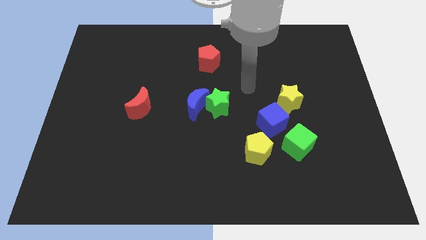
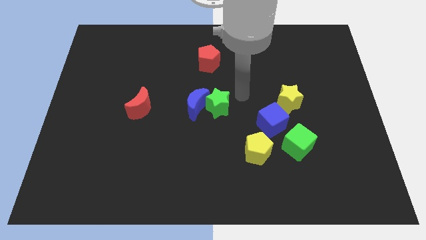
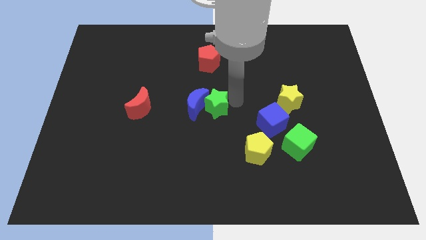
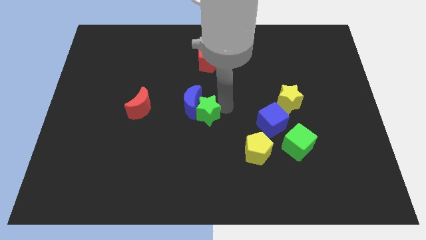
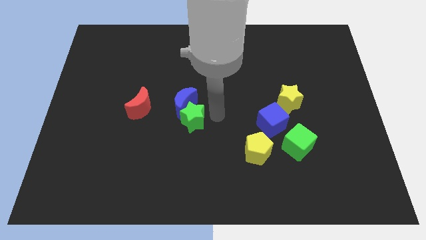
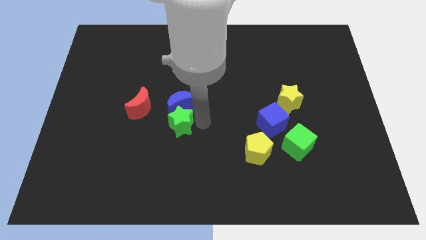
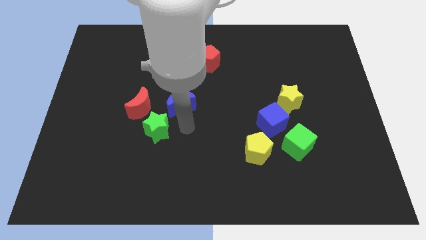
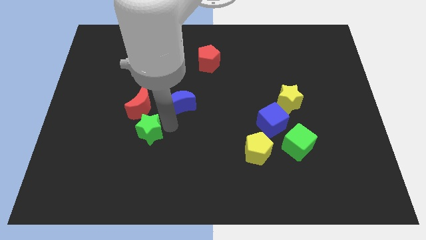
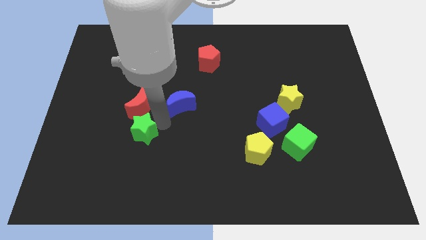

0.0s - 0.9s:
move the blue moon away from the green star

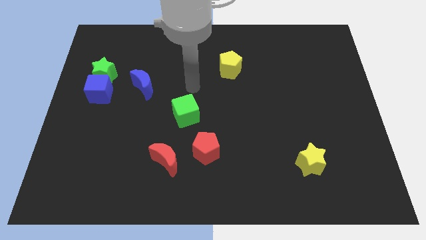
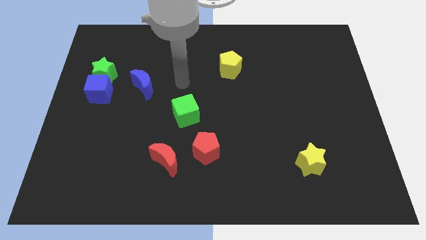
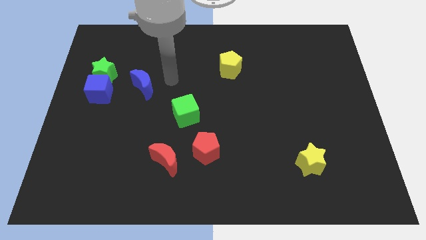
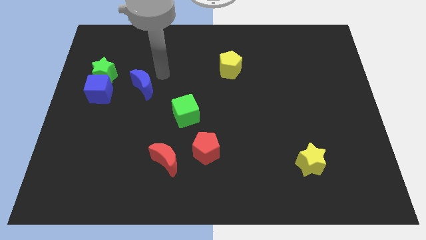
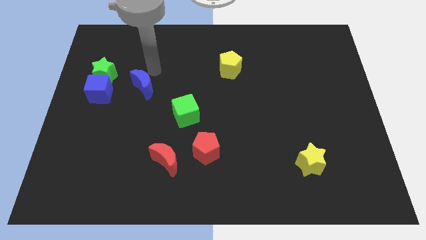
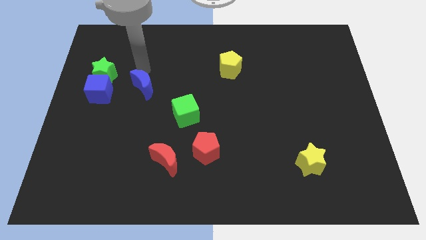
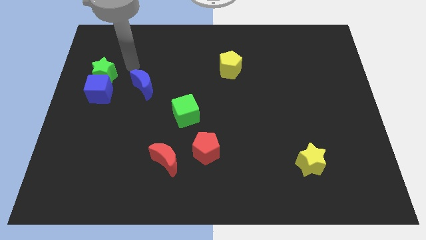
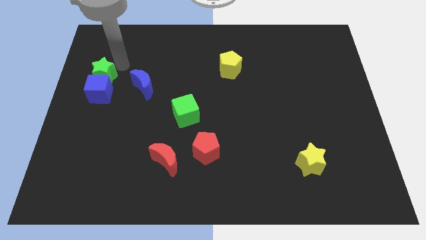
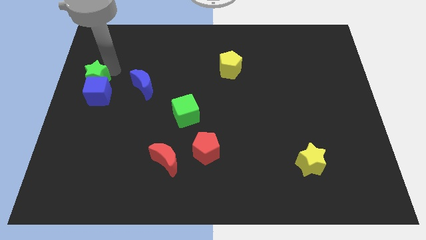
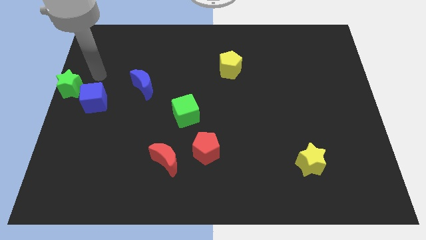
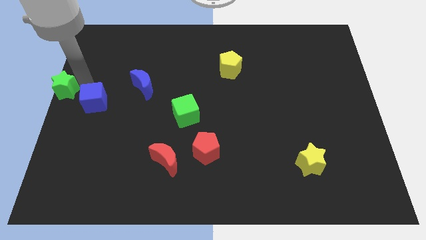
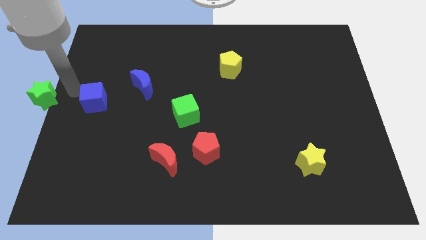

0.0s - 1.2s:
move the blue cube away from the green star

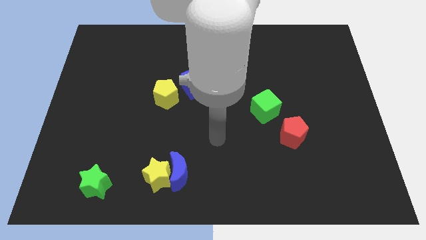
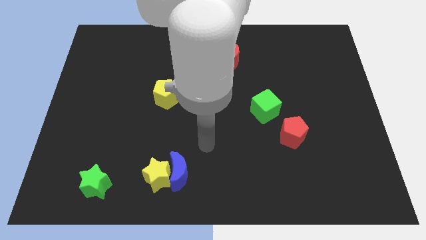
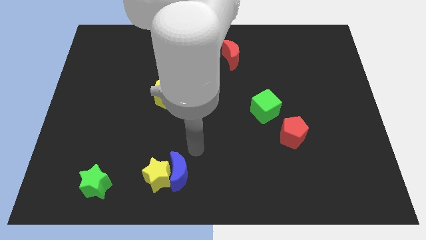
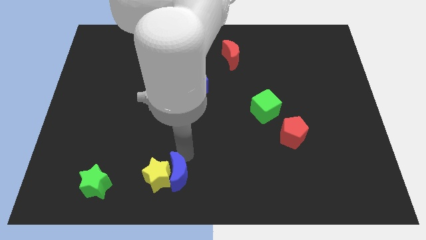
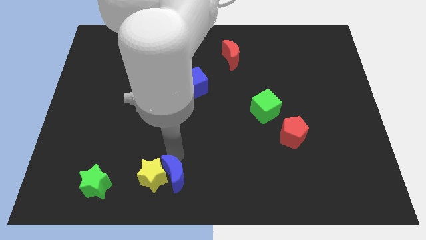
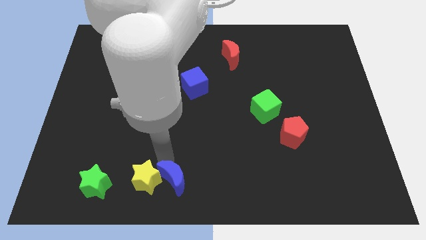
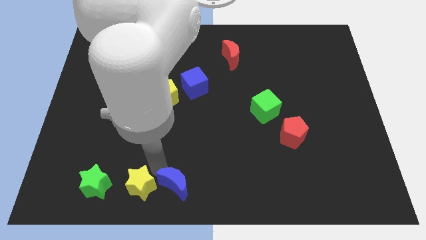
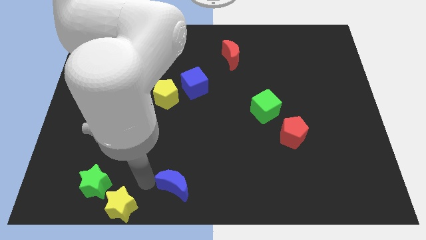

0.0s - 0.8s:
pull the blue moon apart from the yellow star

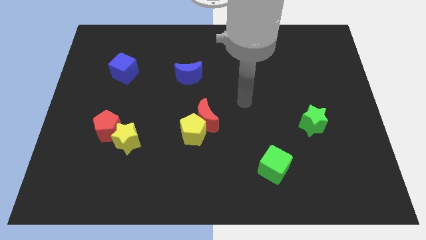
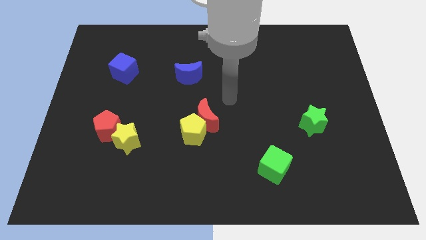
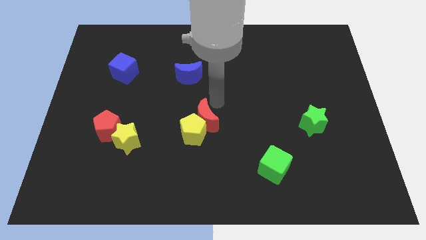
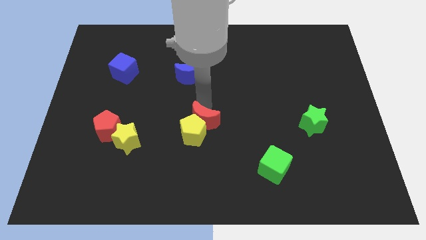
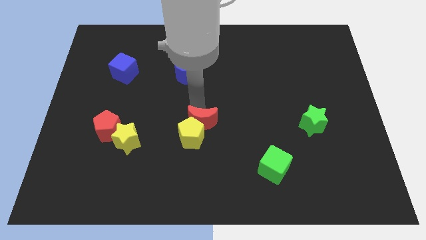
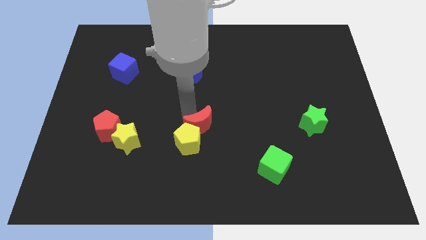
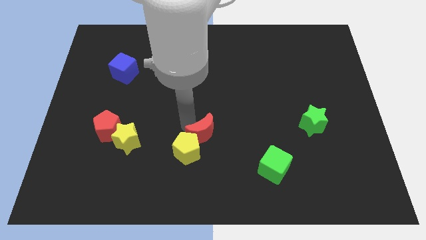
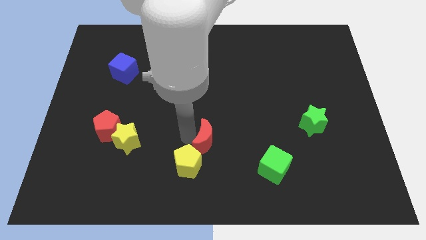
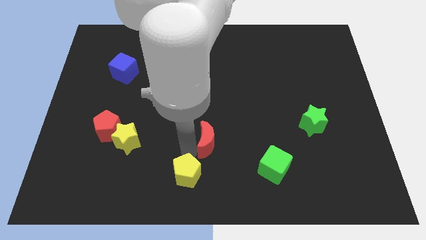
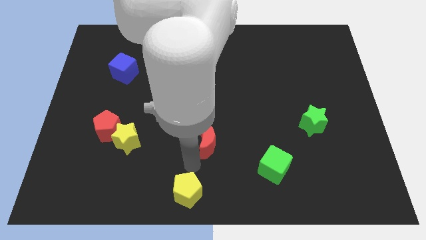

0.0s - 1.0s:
move the red moon away from the yellow pentagon

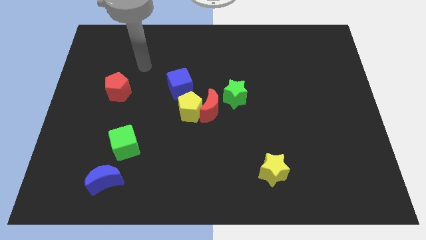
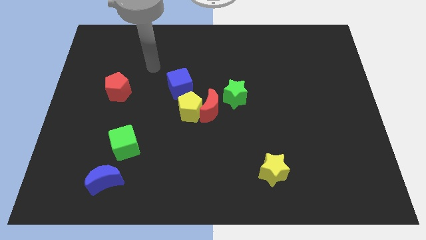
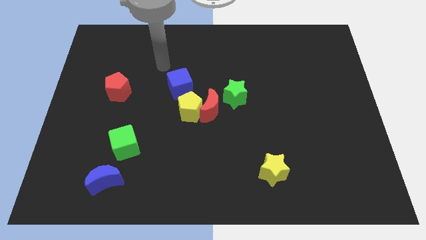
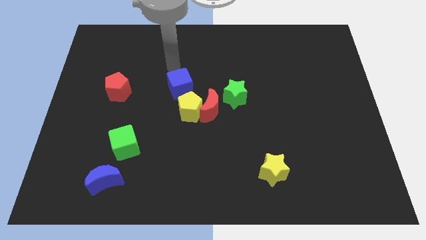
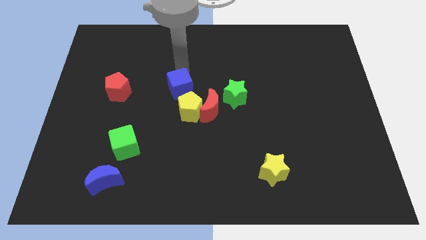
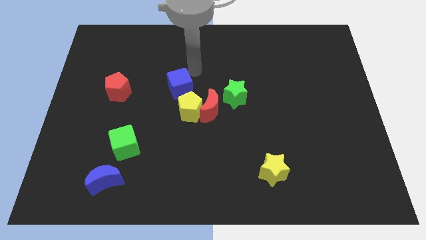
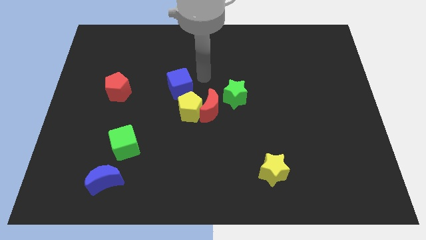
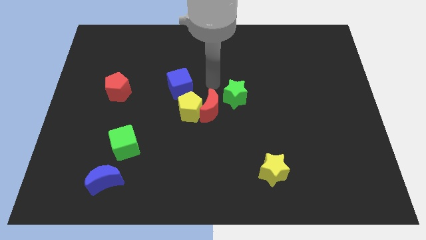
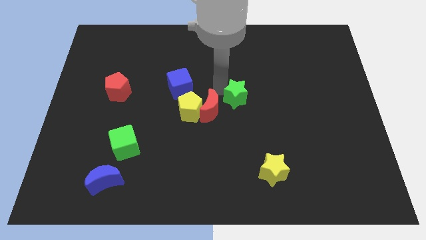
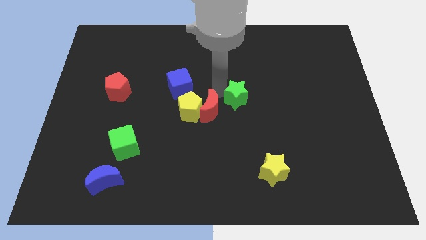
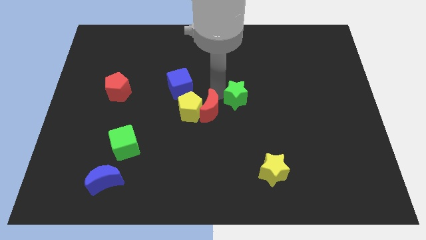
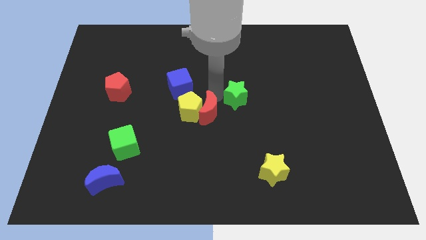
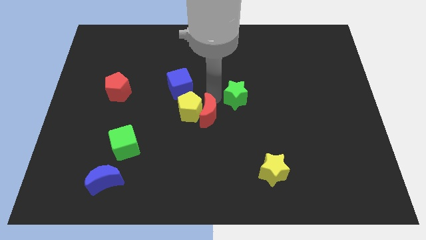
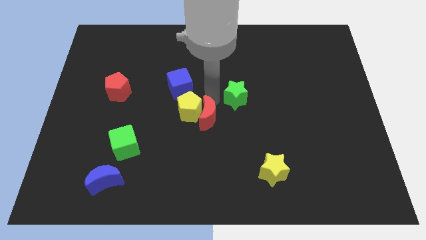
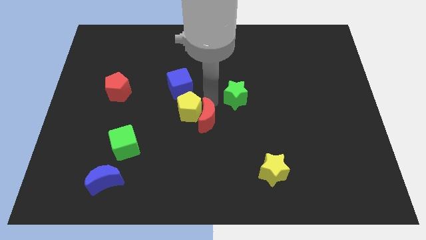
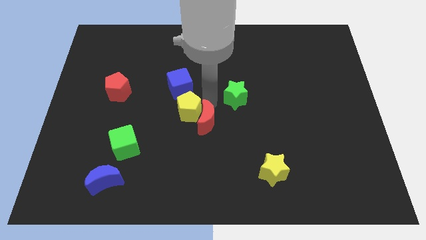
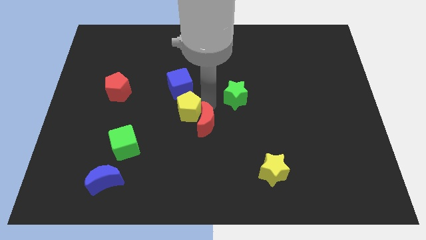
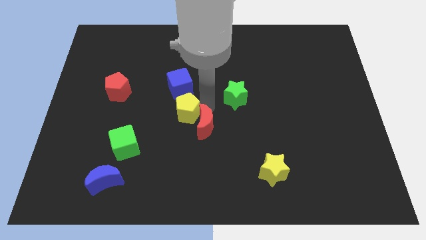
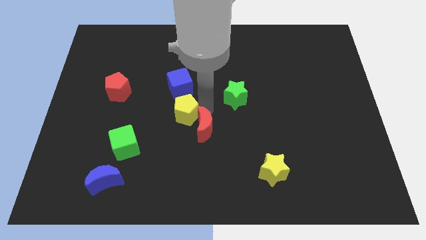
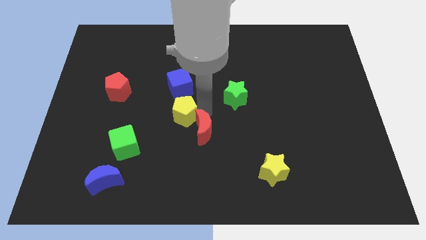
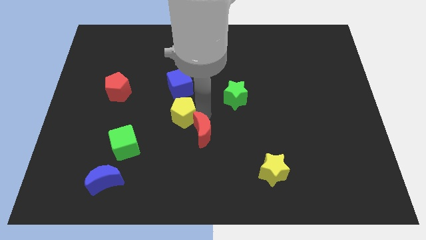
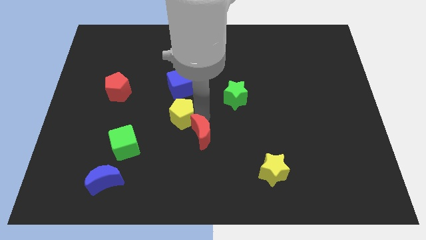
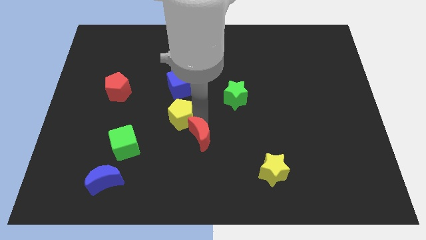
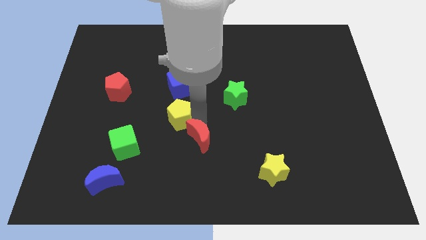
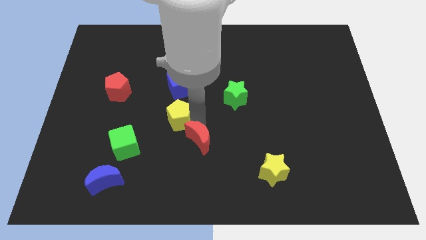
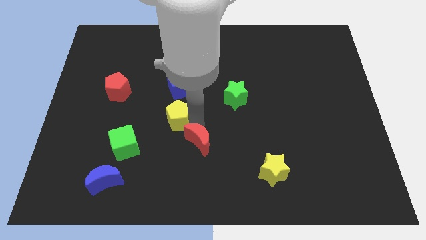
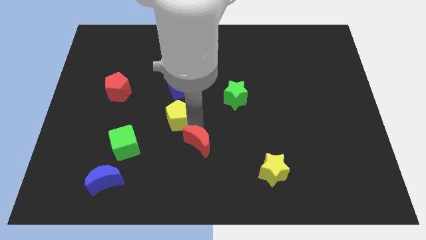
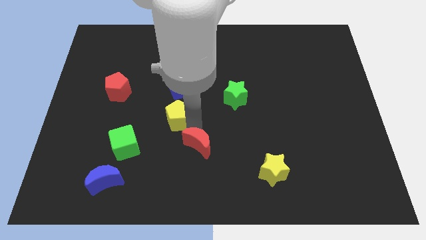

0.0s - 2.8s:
pull the red moon apart from the yellow pentagon and green star

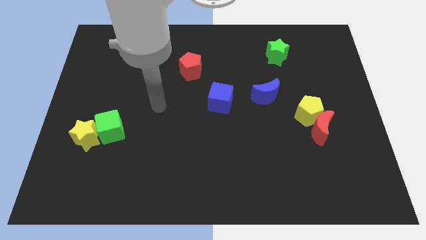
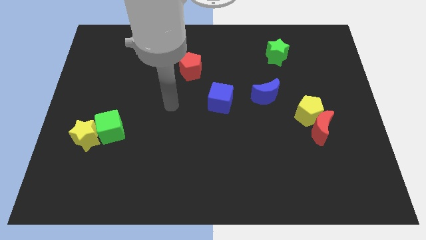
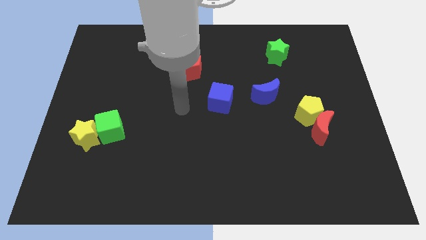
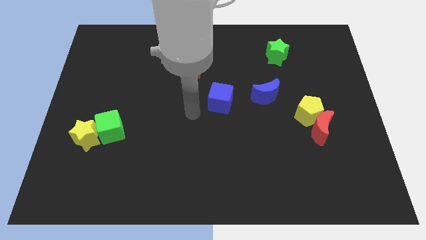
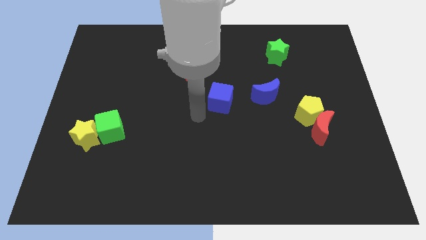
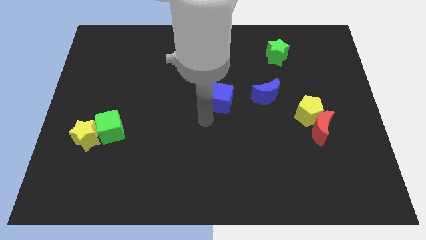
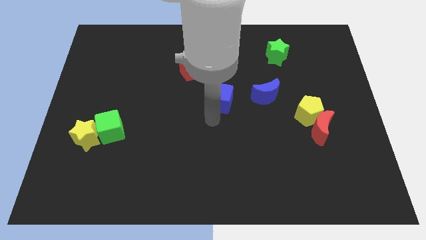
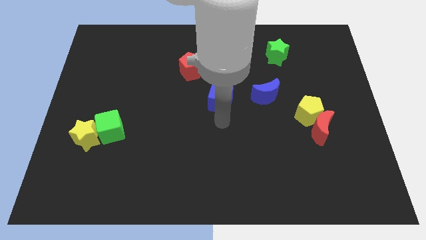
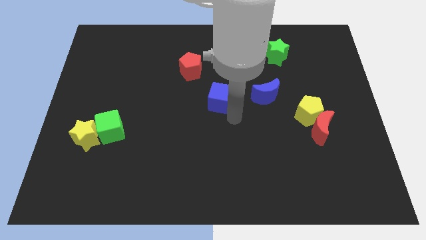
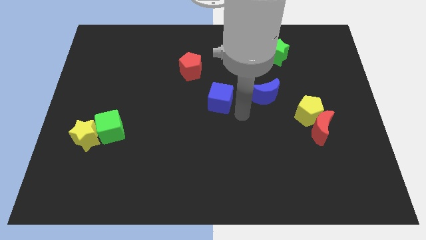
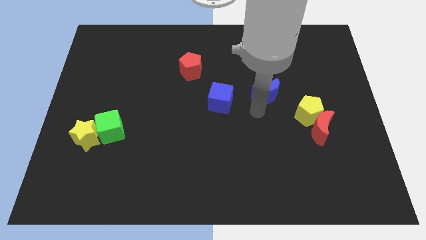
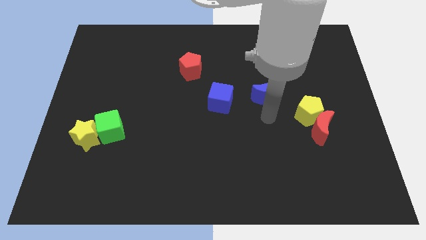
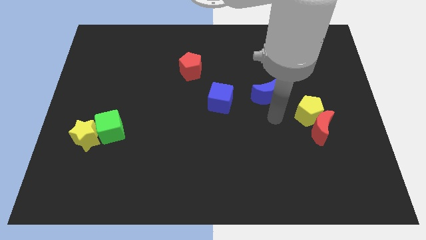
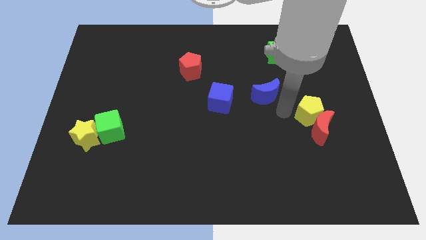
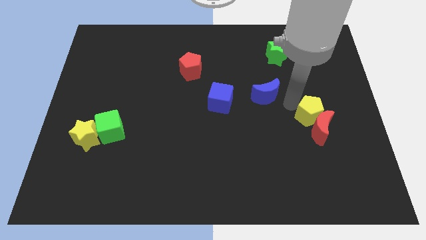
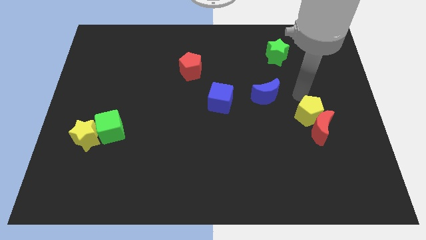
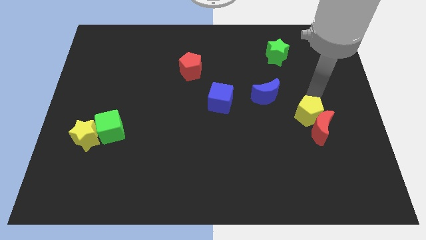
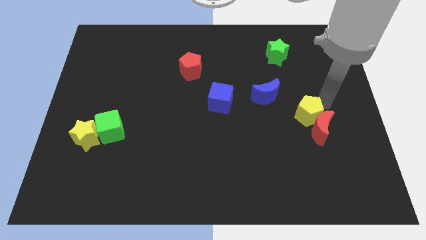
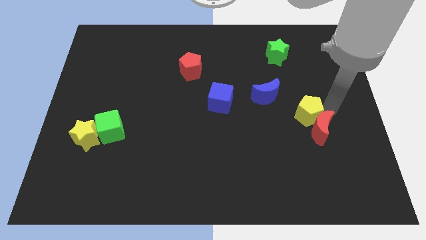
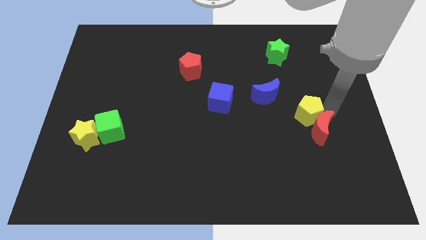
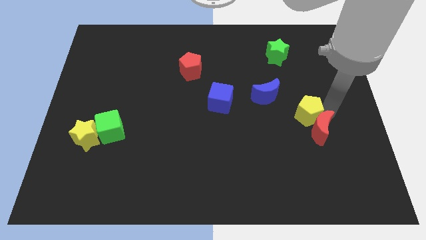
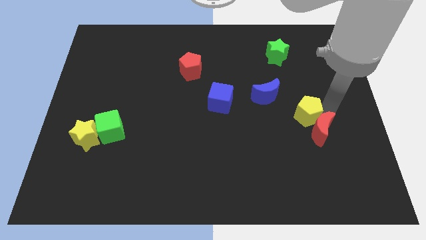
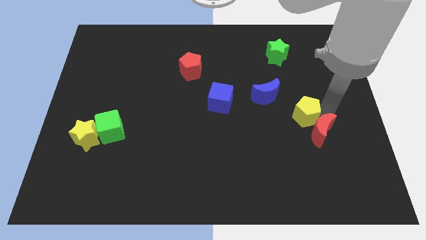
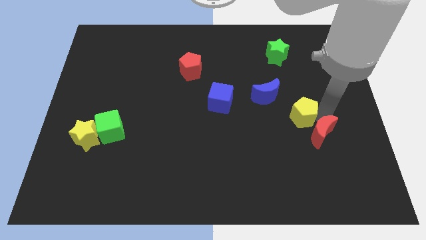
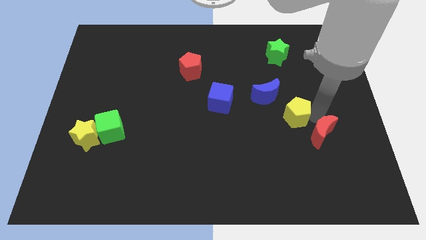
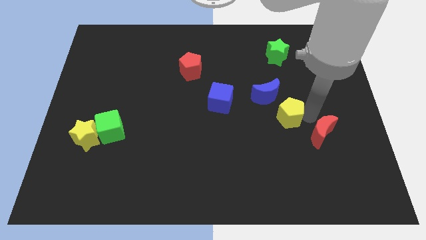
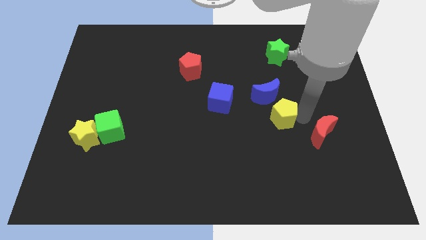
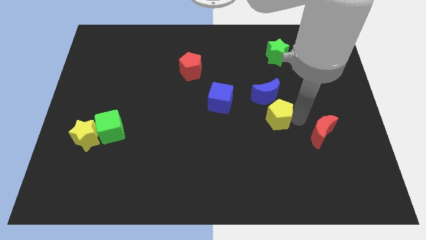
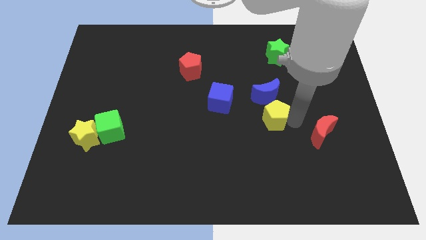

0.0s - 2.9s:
pull the red moon apart from the yellow pentagon
